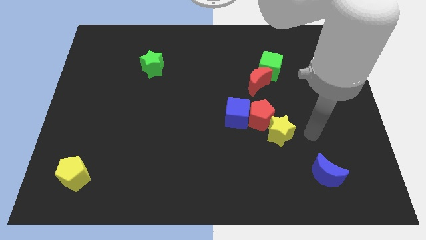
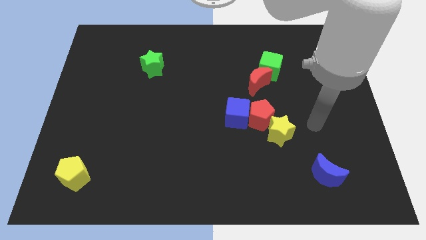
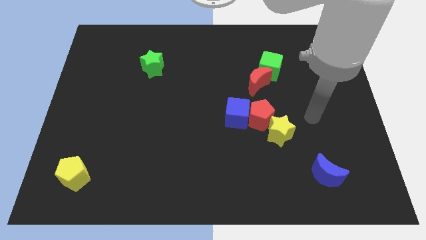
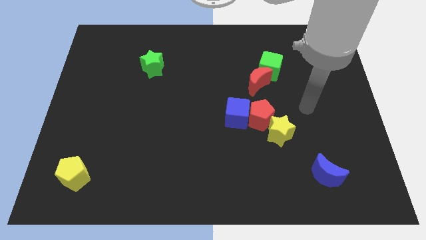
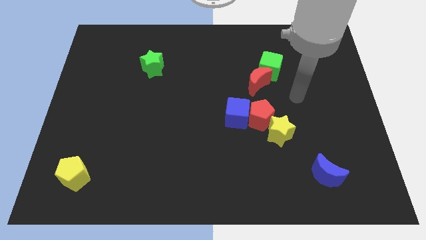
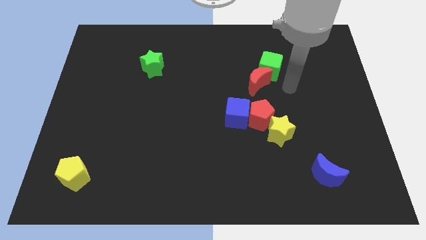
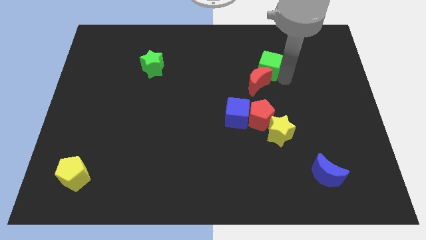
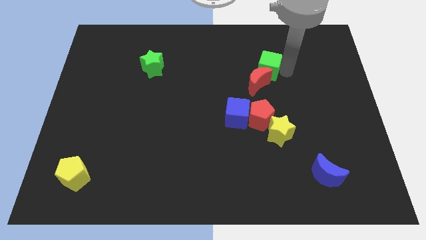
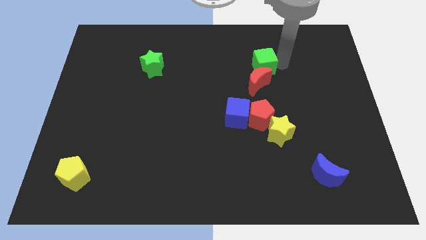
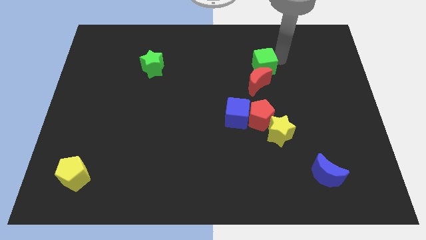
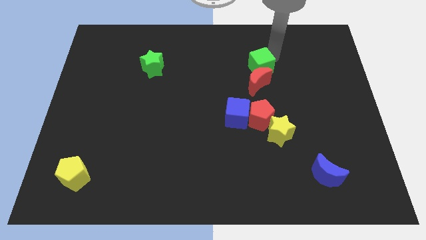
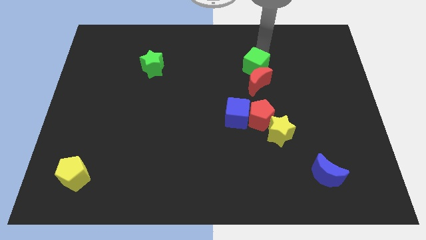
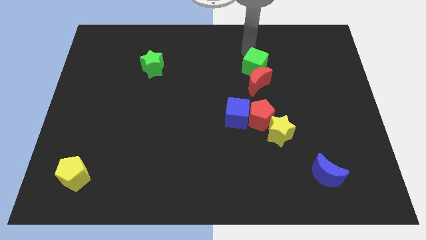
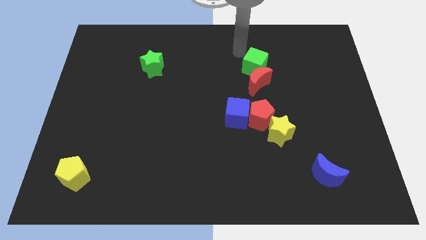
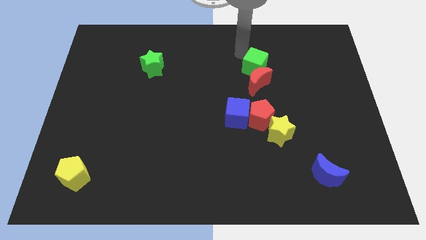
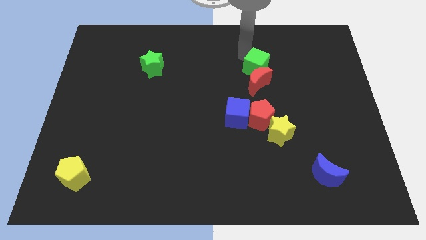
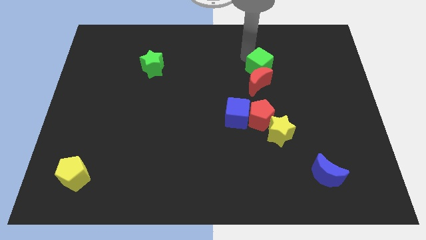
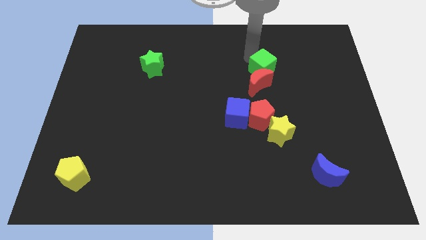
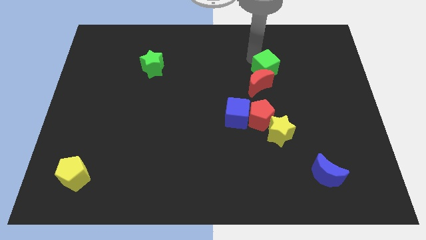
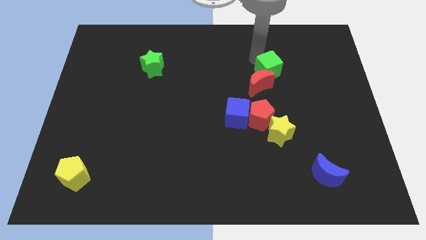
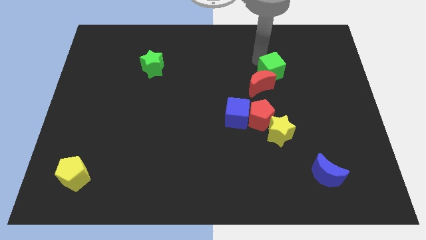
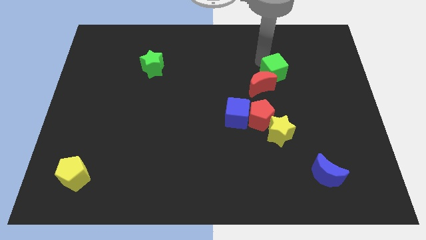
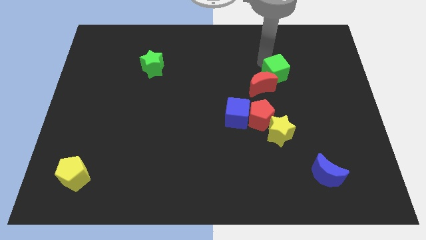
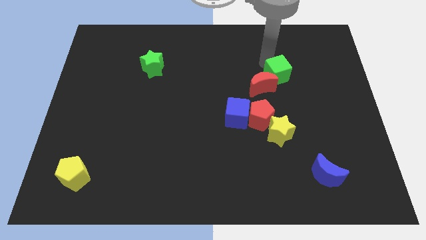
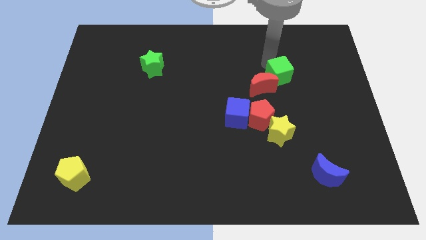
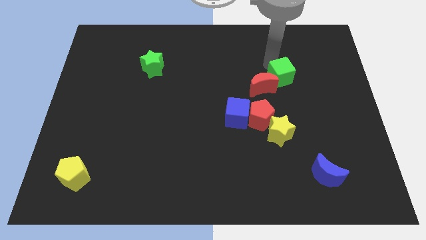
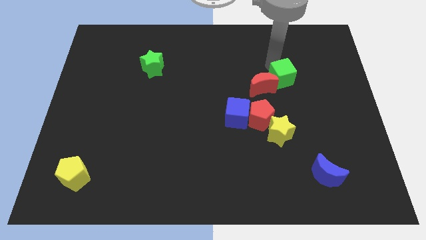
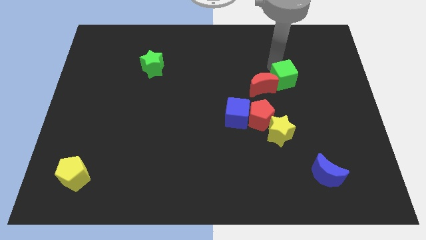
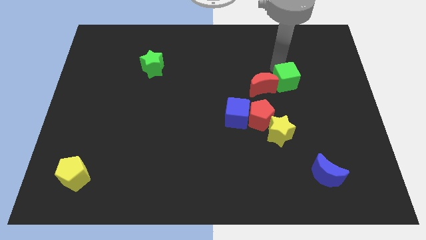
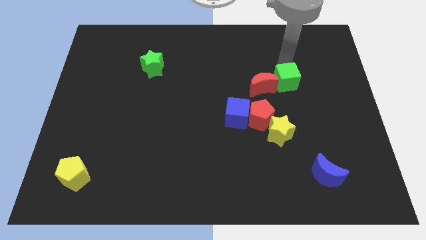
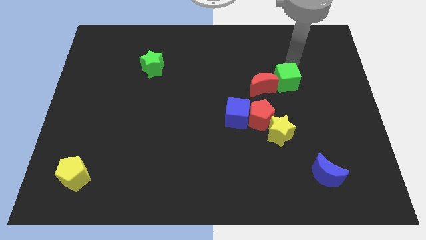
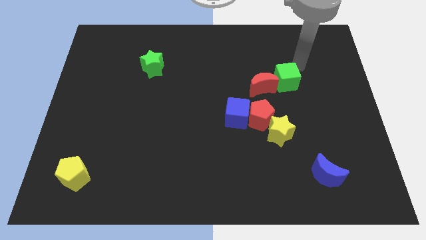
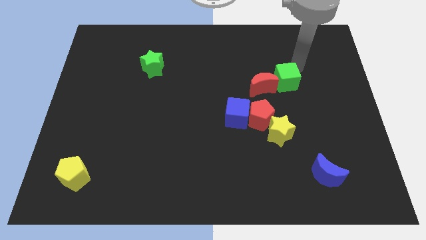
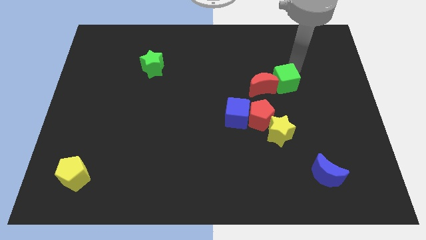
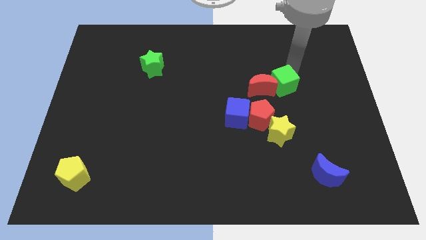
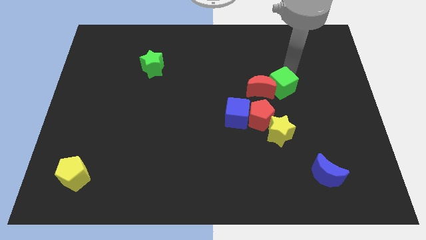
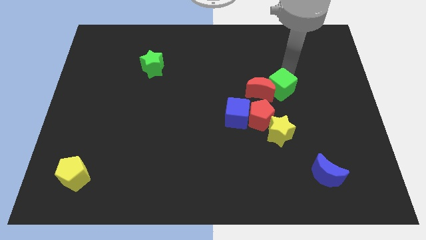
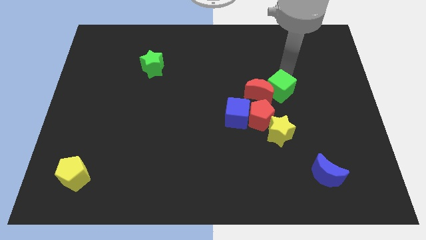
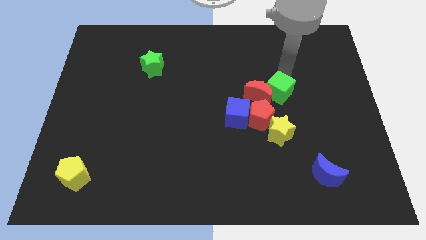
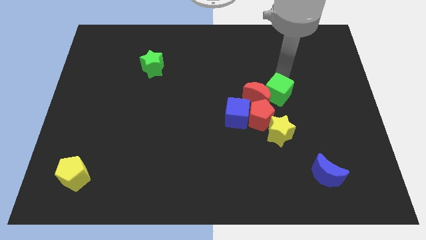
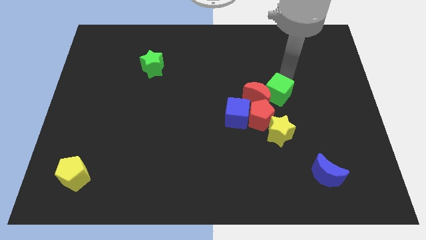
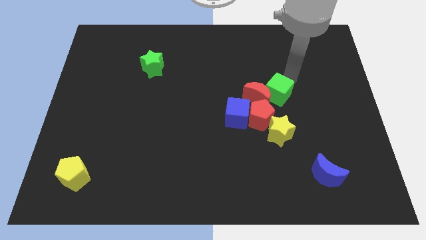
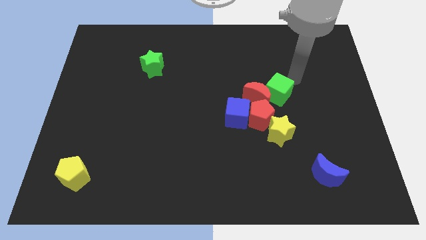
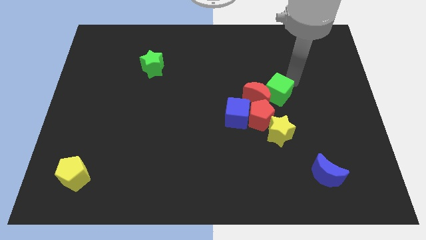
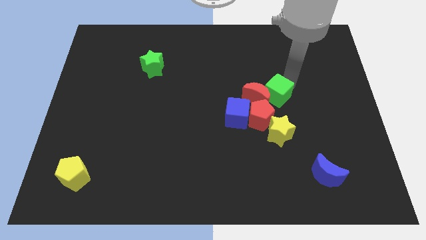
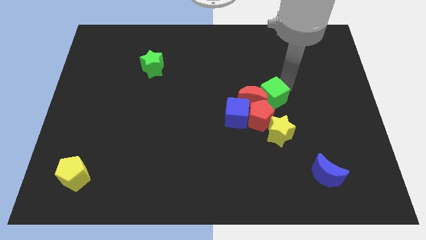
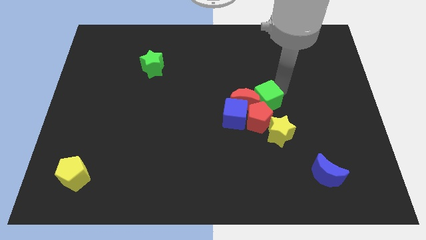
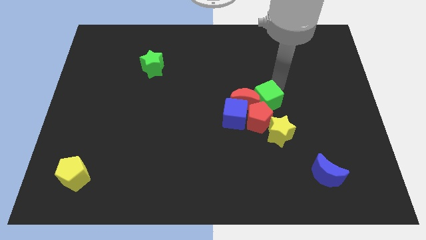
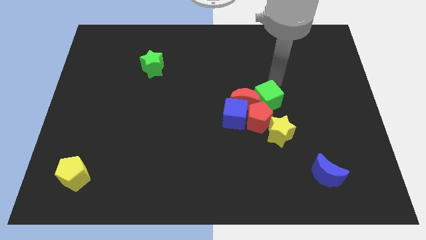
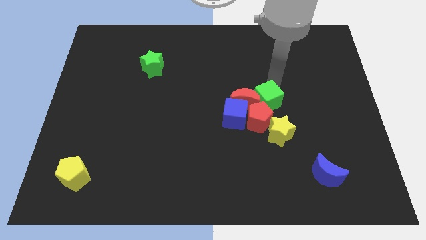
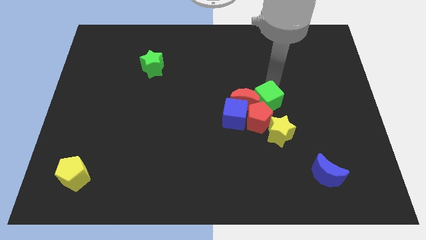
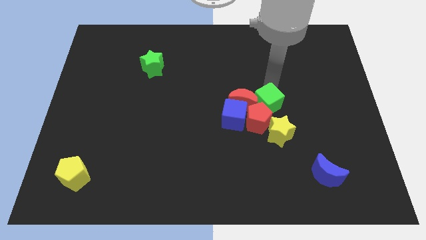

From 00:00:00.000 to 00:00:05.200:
slide the green cube to the red pentagon

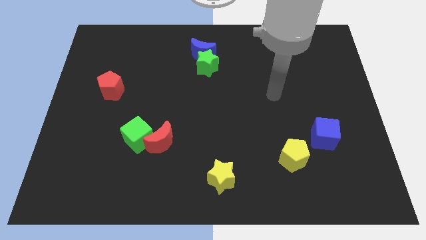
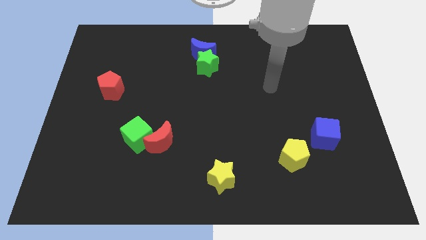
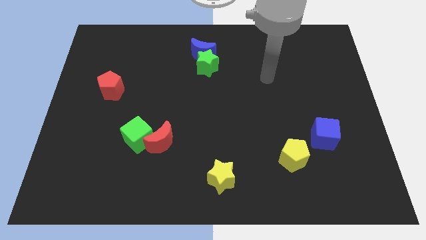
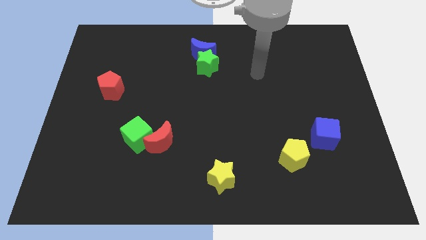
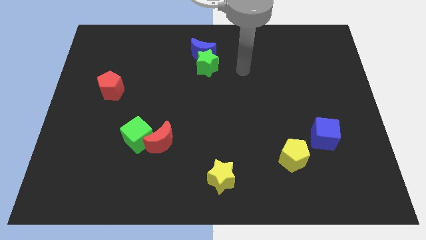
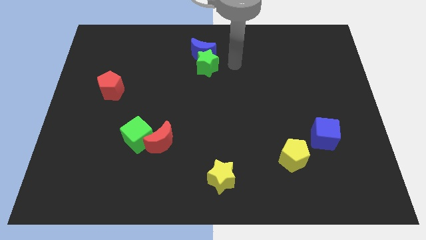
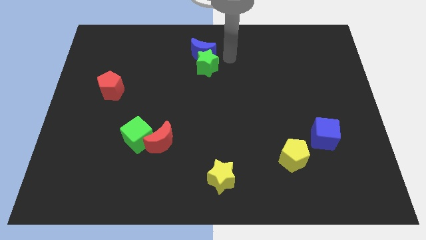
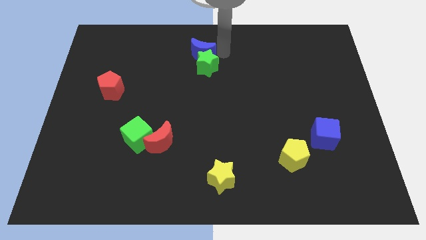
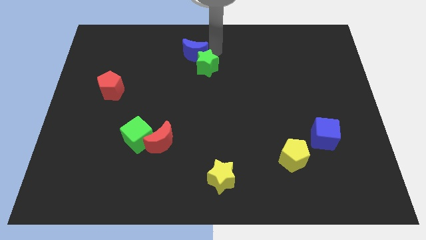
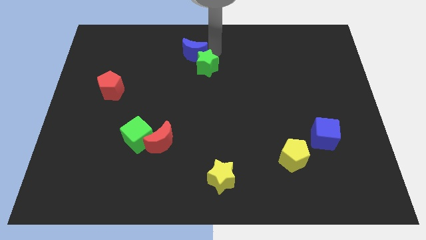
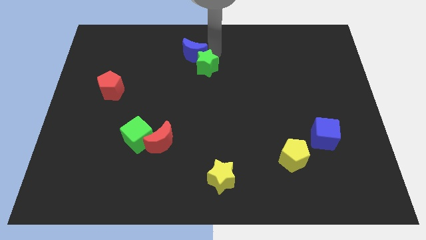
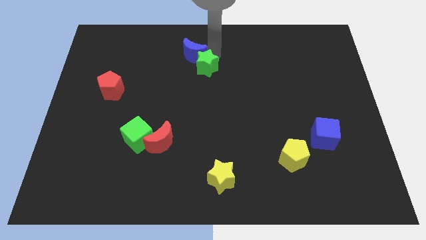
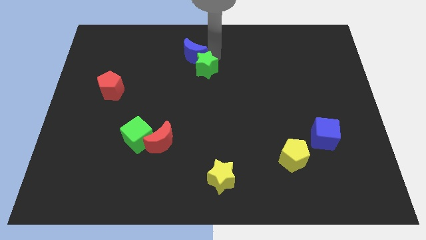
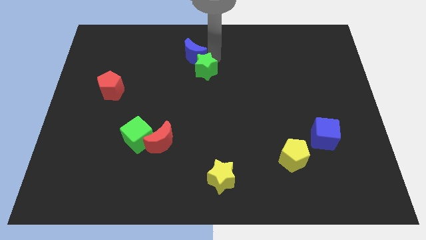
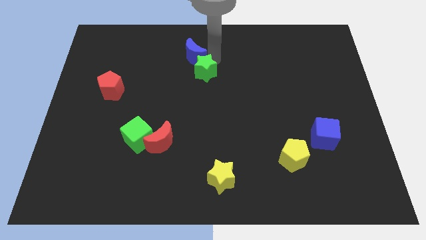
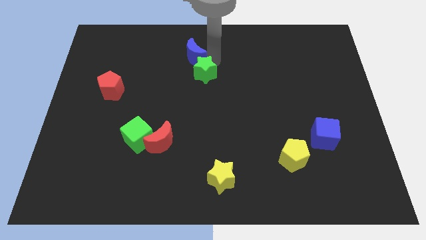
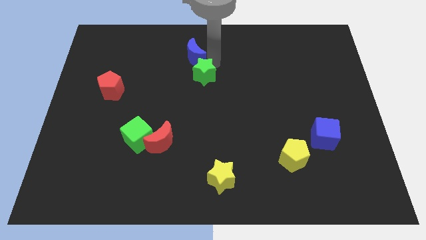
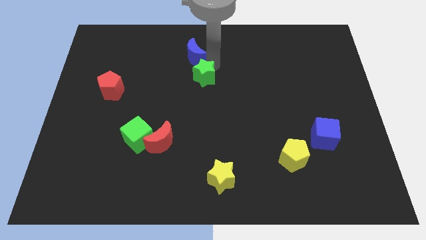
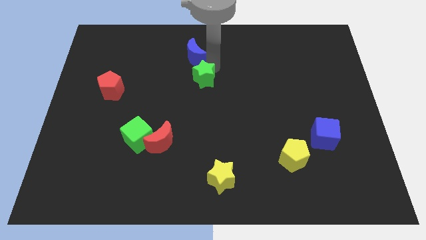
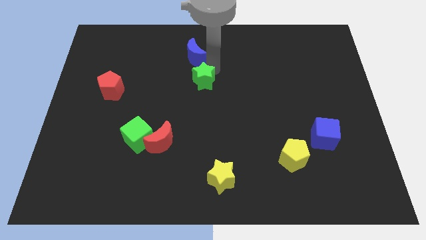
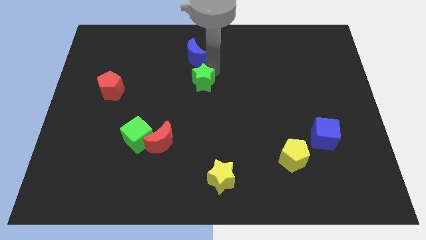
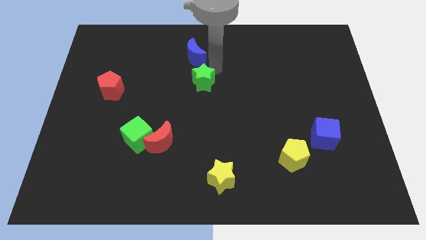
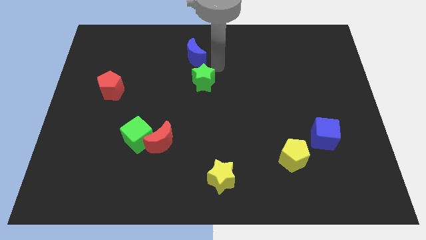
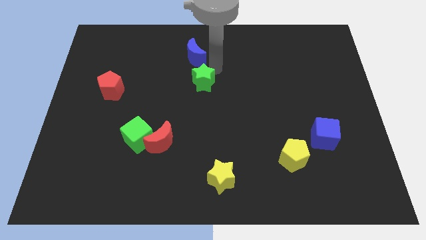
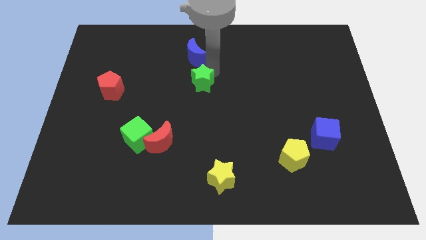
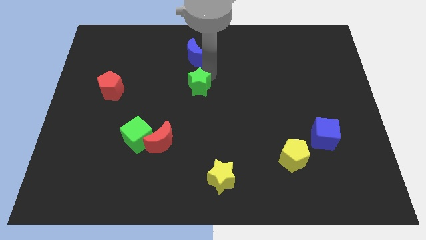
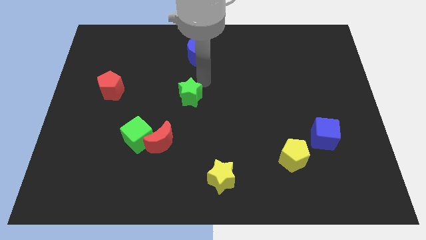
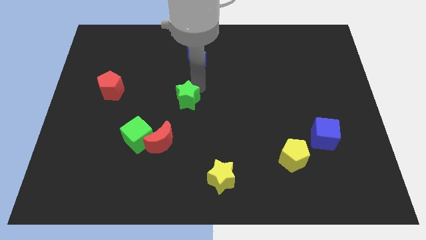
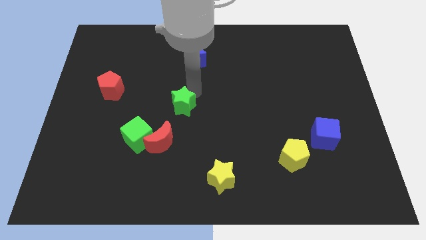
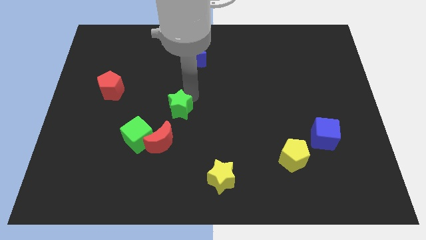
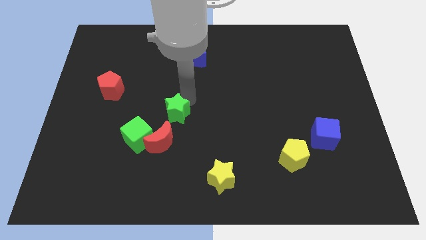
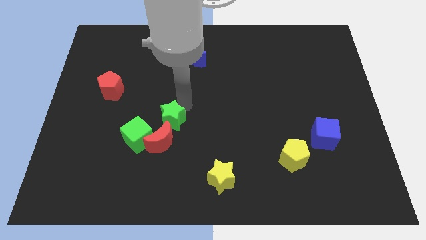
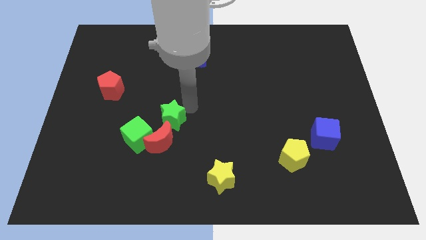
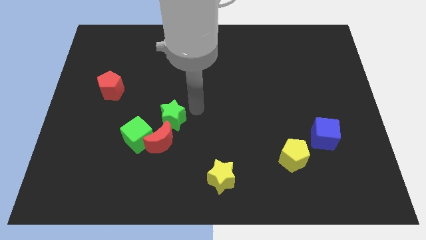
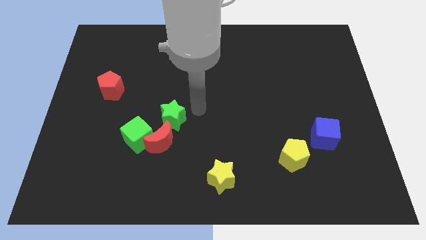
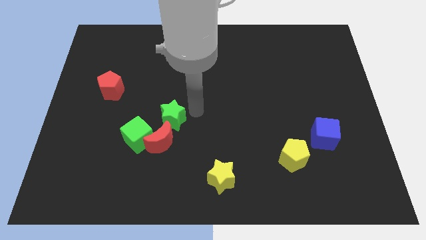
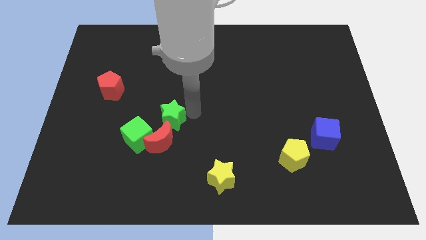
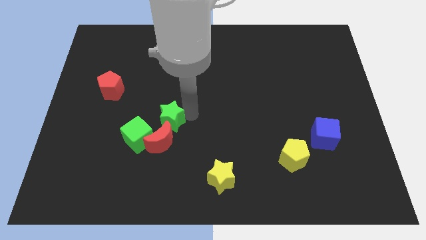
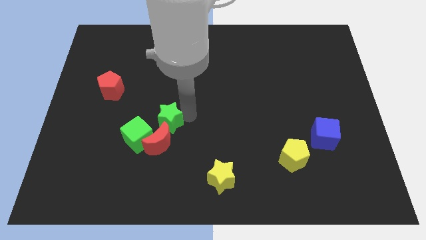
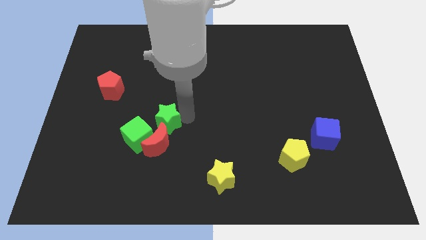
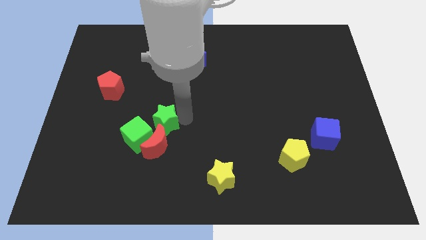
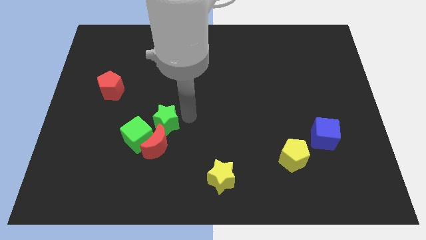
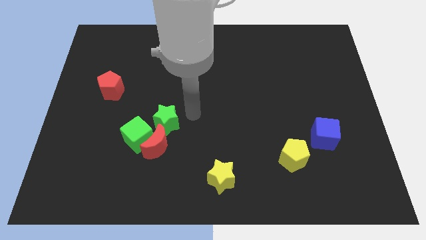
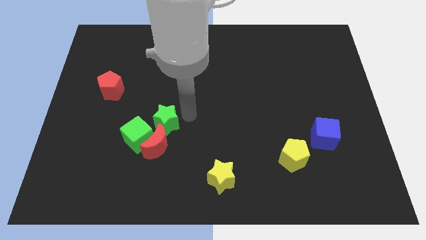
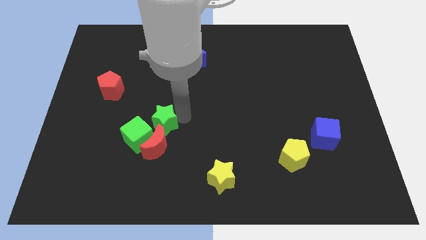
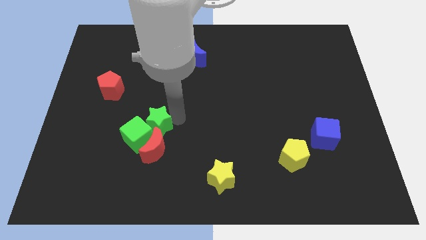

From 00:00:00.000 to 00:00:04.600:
put the green star to the green cube
